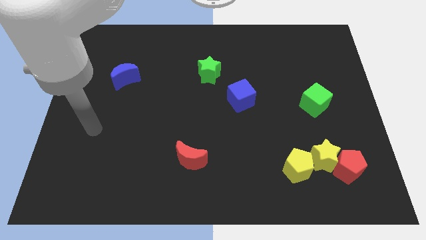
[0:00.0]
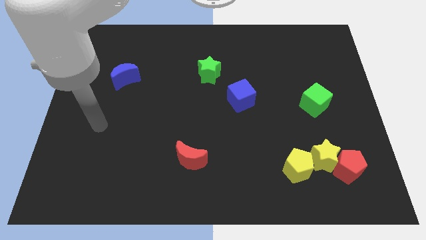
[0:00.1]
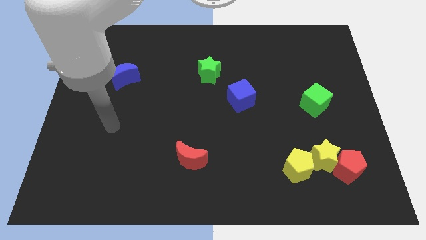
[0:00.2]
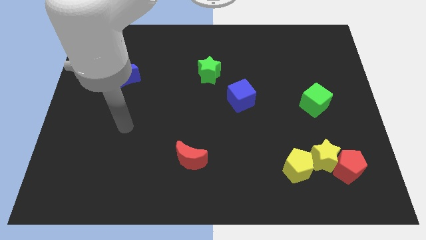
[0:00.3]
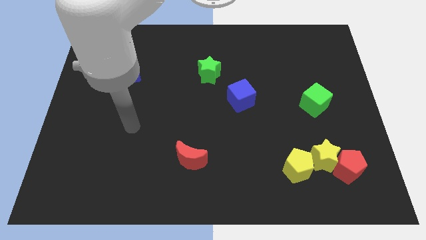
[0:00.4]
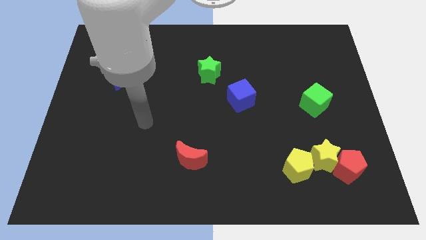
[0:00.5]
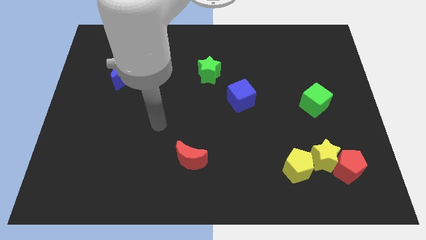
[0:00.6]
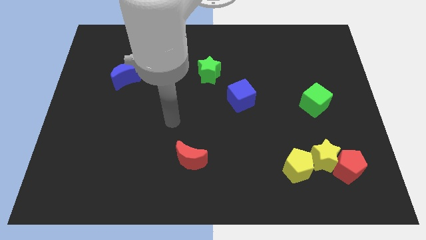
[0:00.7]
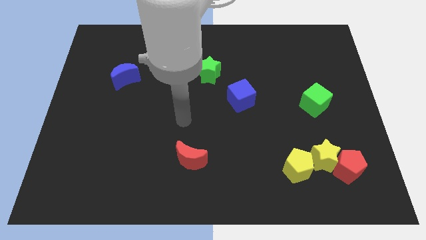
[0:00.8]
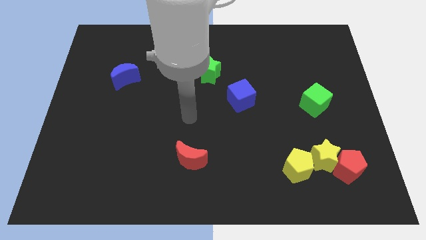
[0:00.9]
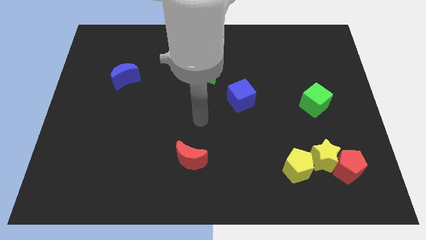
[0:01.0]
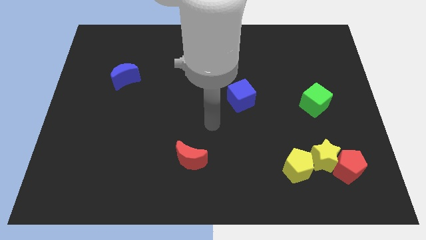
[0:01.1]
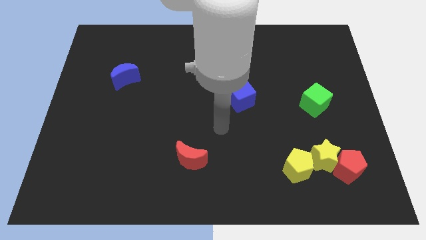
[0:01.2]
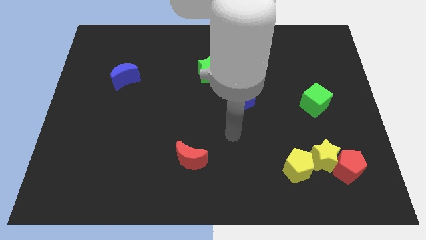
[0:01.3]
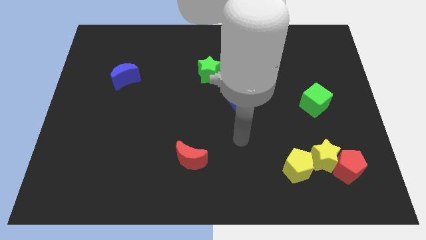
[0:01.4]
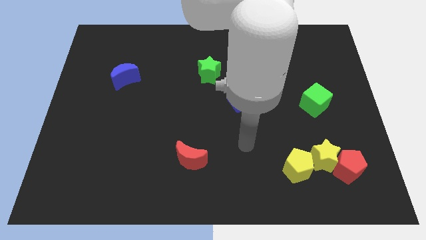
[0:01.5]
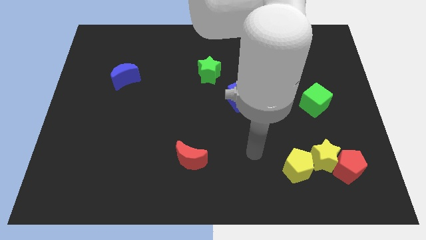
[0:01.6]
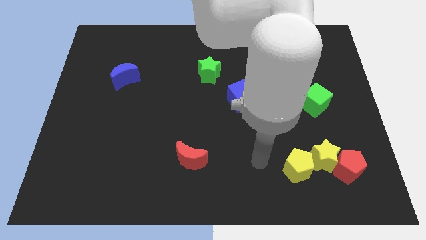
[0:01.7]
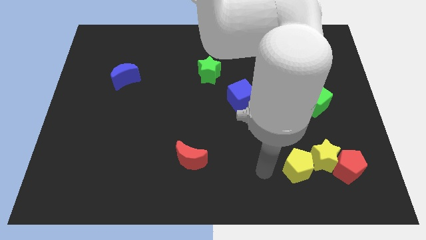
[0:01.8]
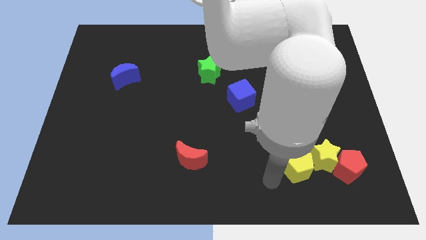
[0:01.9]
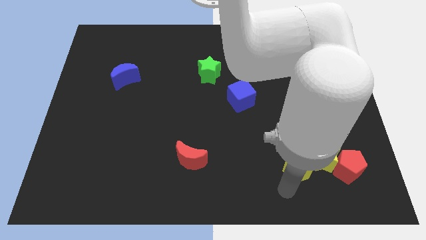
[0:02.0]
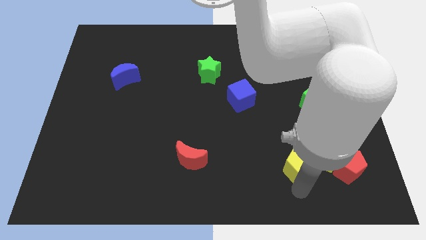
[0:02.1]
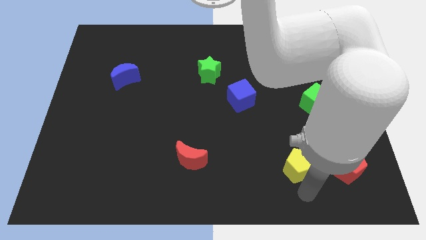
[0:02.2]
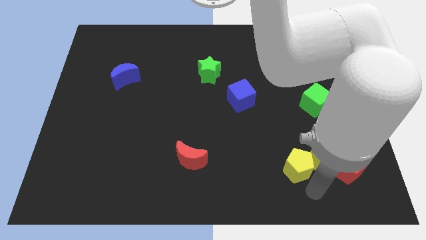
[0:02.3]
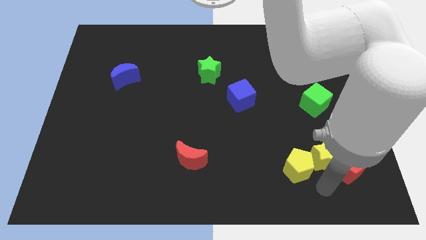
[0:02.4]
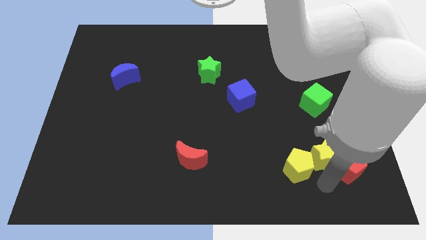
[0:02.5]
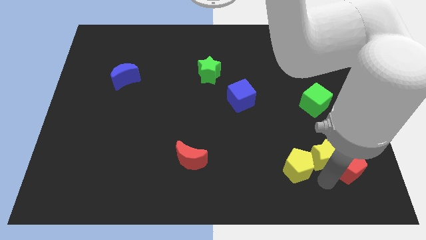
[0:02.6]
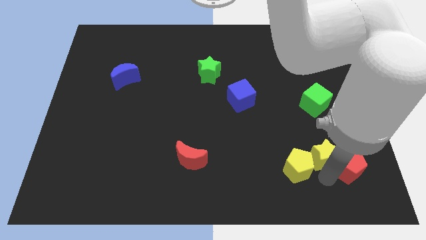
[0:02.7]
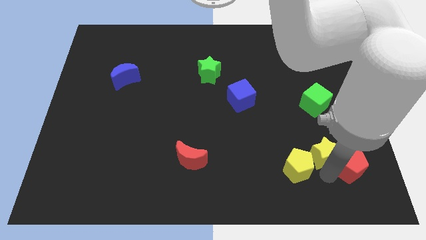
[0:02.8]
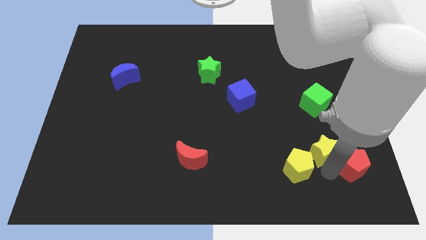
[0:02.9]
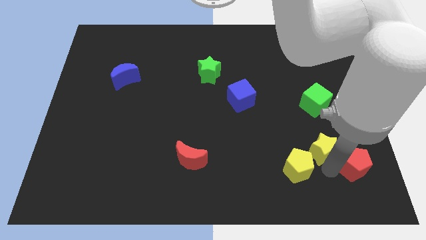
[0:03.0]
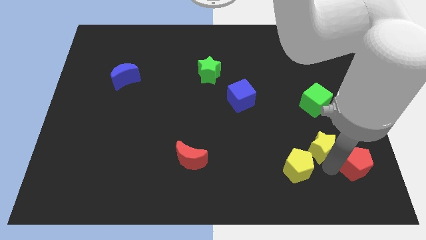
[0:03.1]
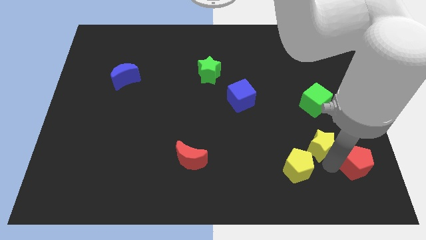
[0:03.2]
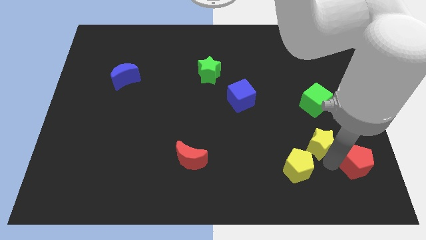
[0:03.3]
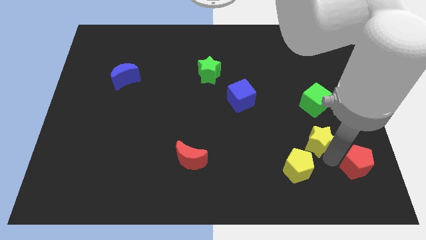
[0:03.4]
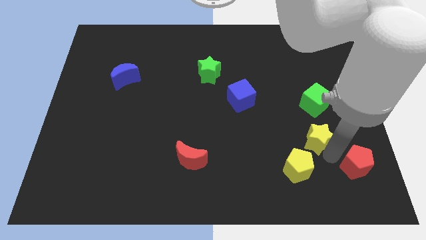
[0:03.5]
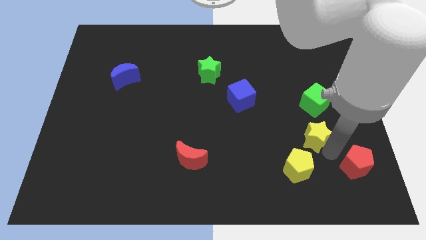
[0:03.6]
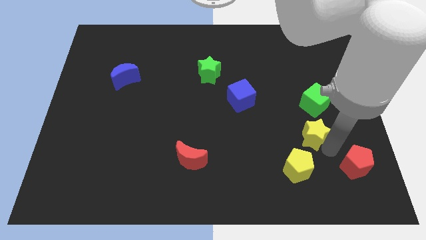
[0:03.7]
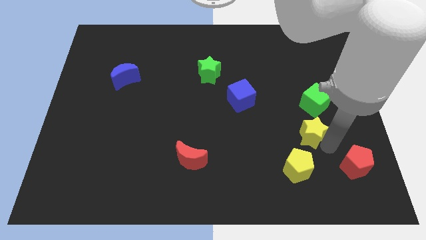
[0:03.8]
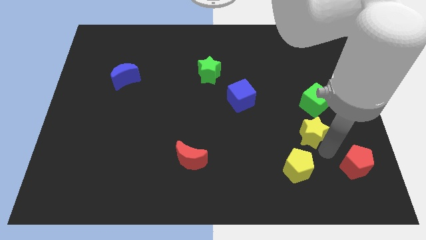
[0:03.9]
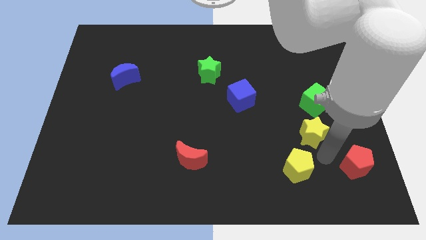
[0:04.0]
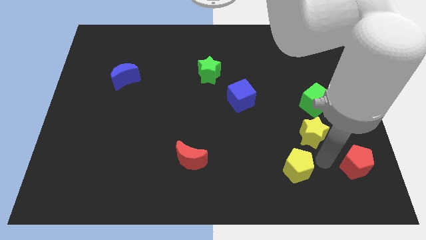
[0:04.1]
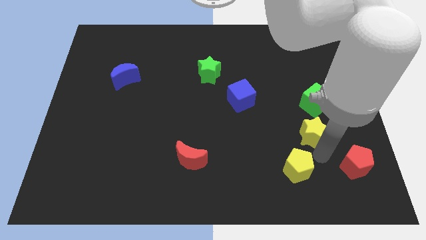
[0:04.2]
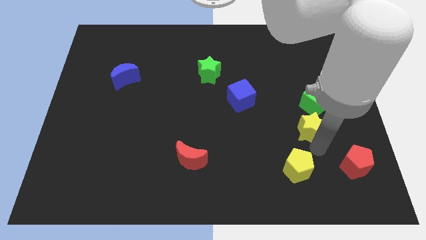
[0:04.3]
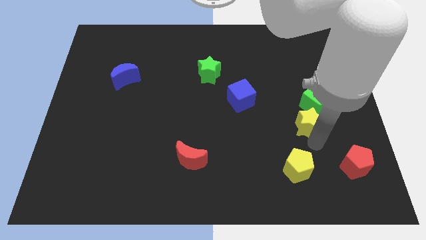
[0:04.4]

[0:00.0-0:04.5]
pull the yellow star apart from the red pentagon and yellow pentagon

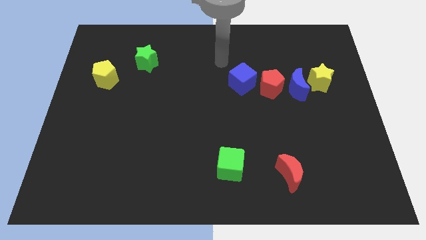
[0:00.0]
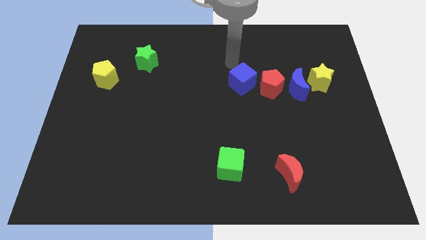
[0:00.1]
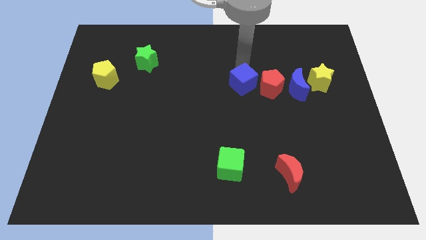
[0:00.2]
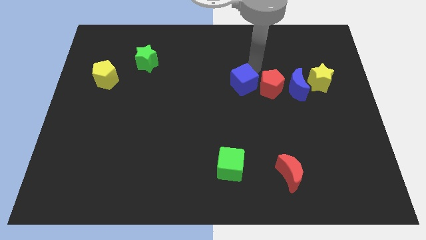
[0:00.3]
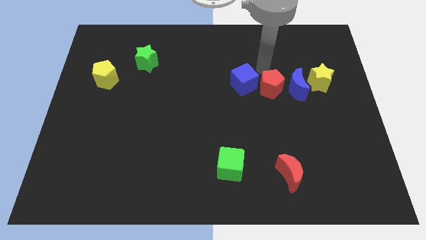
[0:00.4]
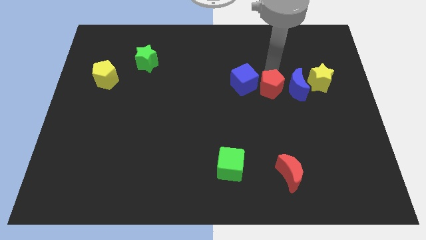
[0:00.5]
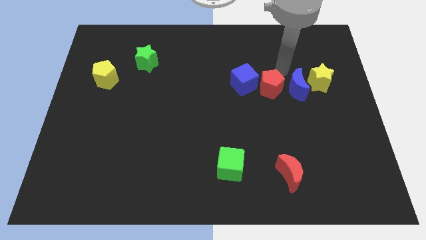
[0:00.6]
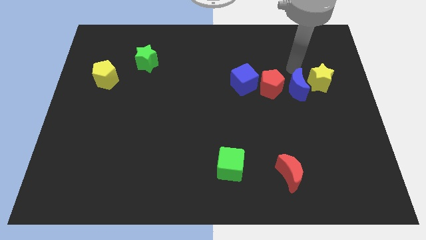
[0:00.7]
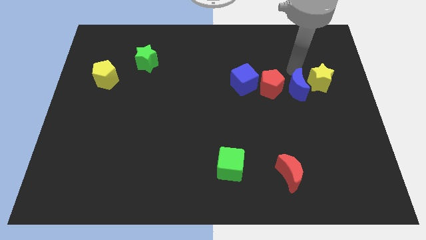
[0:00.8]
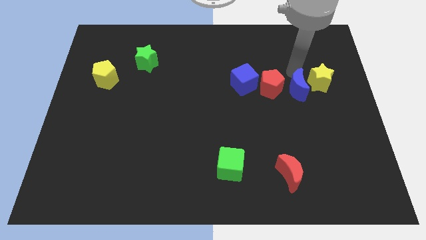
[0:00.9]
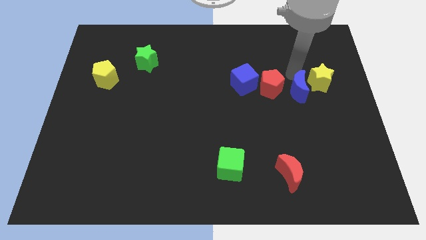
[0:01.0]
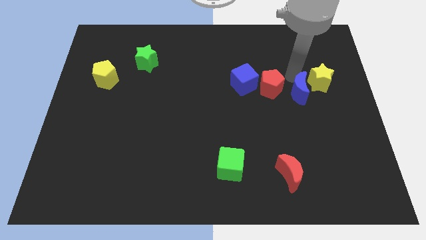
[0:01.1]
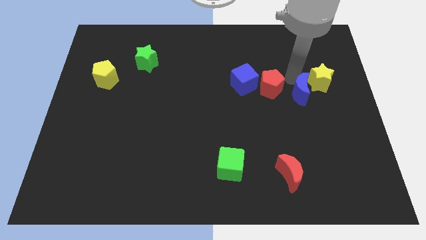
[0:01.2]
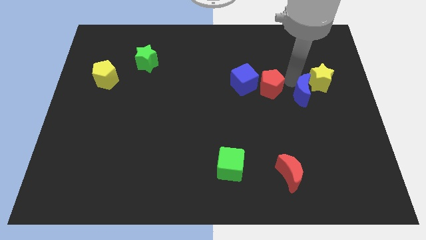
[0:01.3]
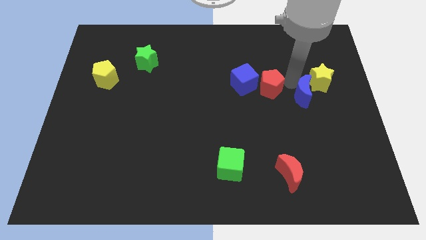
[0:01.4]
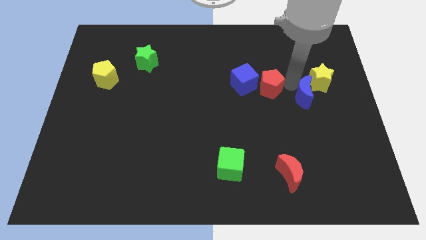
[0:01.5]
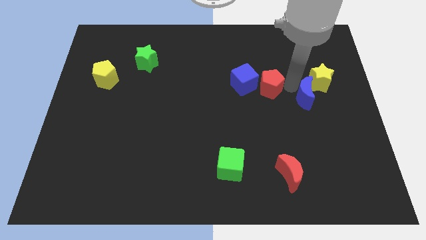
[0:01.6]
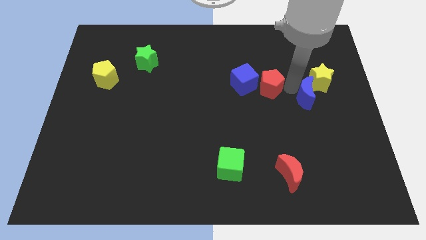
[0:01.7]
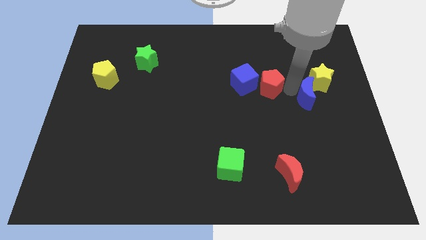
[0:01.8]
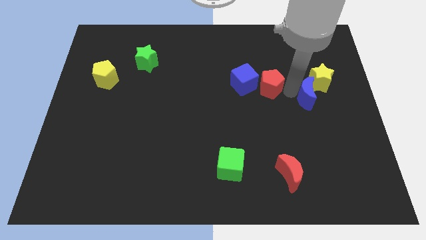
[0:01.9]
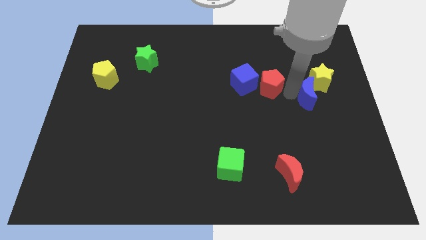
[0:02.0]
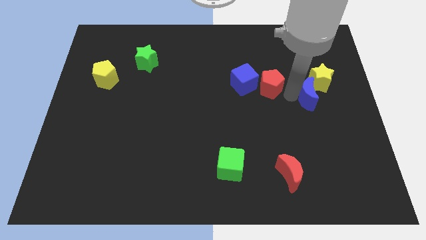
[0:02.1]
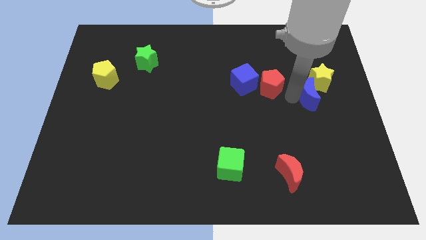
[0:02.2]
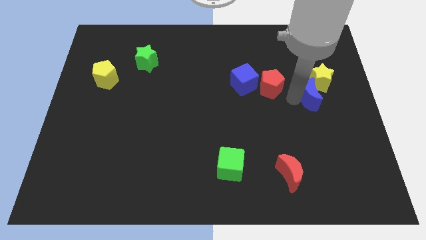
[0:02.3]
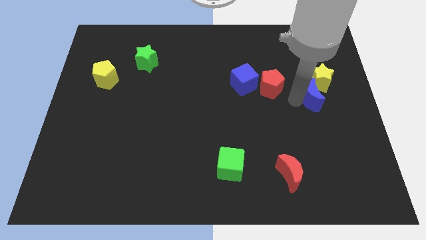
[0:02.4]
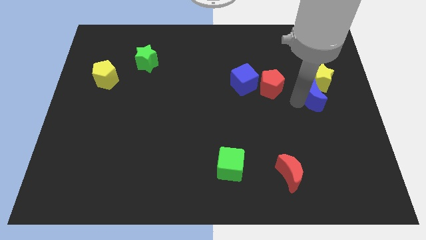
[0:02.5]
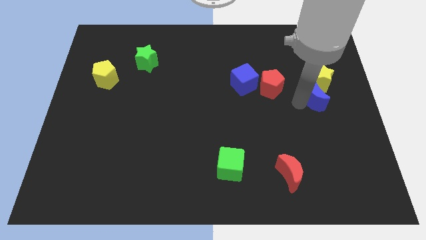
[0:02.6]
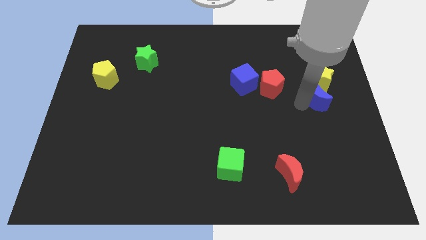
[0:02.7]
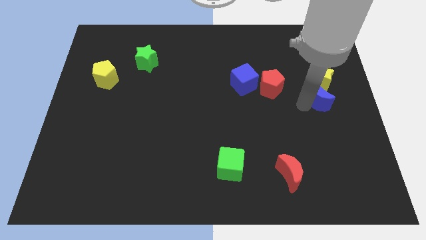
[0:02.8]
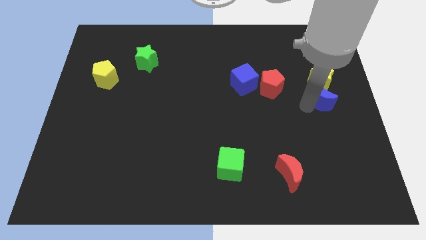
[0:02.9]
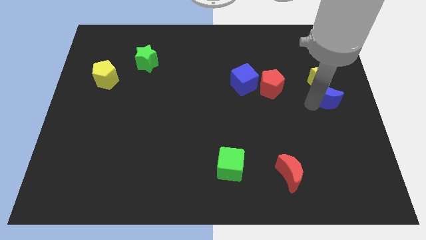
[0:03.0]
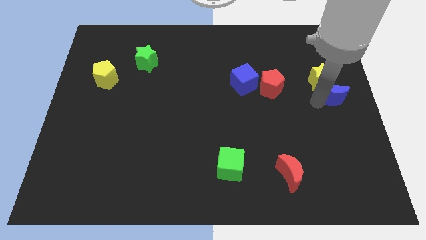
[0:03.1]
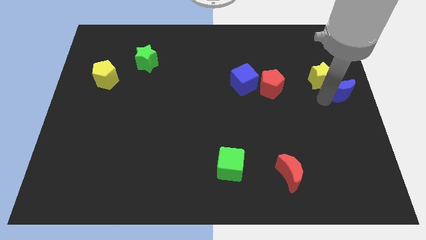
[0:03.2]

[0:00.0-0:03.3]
move the blue moon away from the red pentagon and yellow star

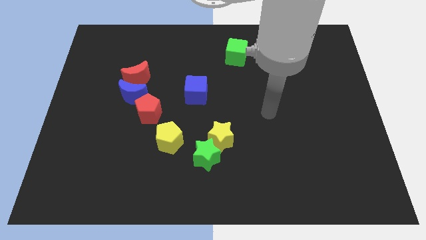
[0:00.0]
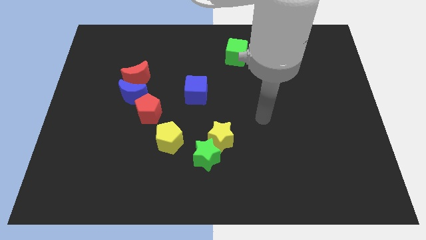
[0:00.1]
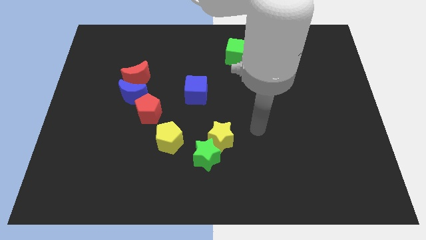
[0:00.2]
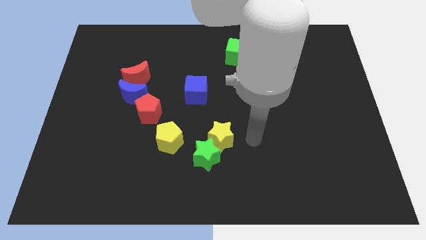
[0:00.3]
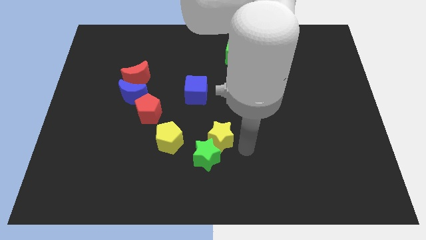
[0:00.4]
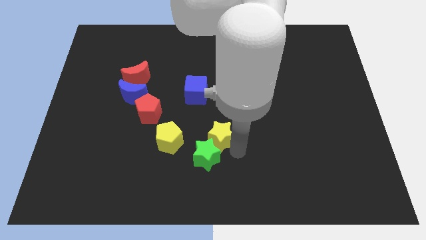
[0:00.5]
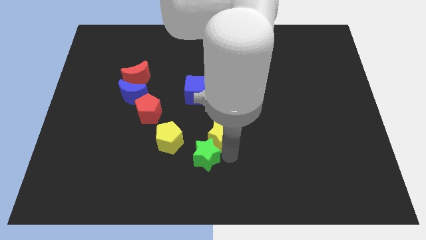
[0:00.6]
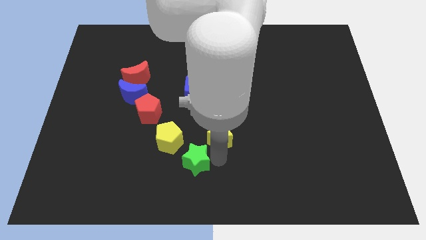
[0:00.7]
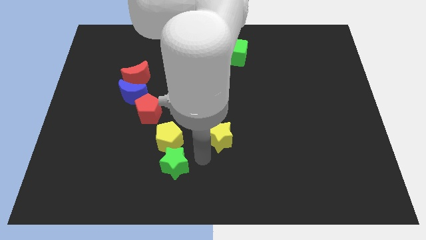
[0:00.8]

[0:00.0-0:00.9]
move the yellow star away from the green star

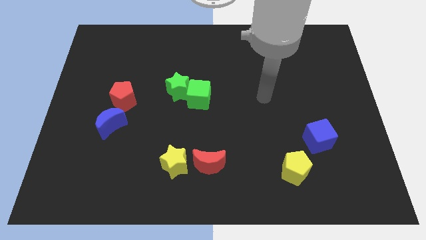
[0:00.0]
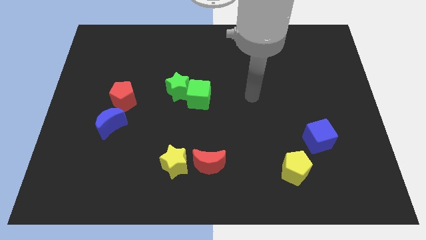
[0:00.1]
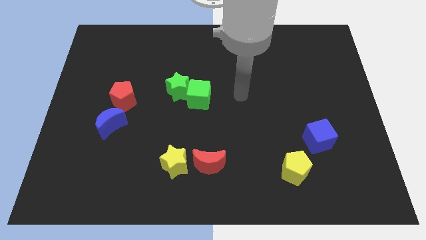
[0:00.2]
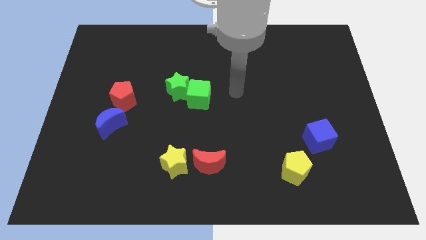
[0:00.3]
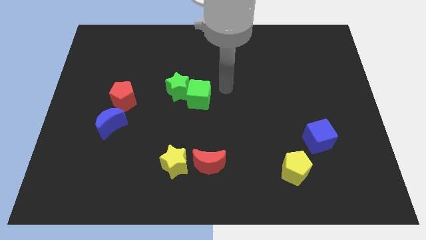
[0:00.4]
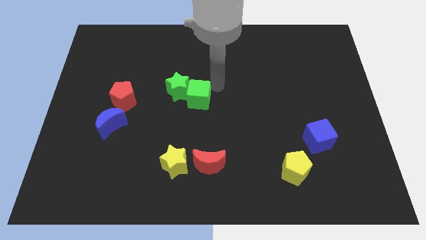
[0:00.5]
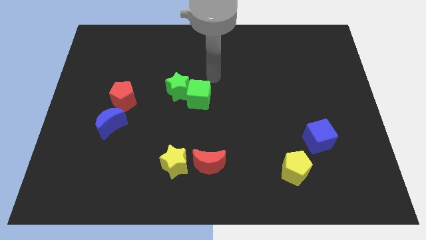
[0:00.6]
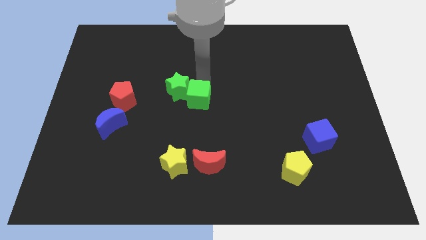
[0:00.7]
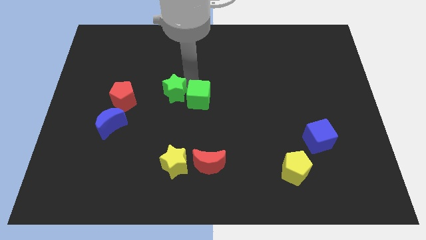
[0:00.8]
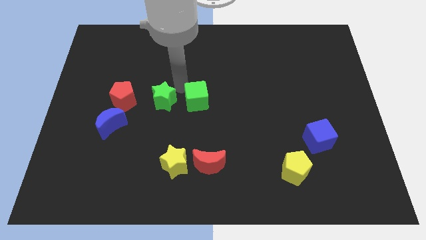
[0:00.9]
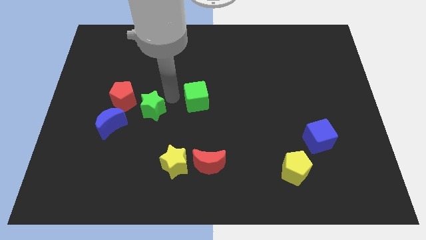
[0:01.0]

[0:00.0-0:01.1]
move the green cube away from the green star
